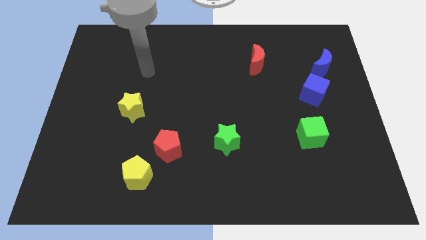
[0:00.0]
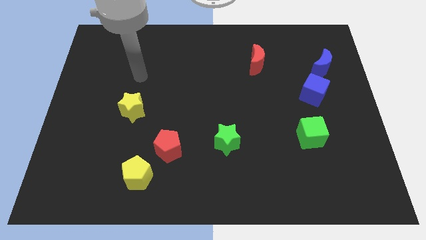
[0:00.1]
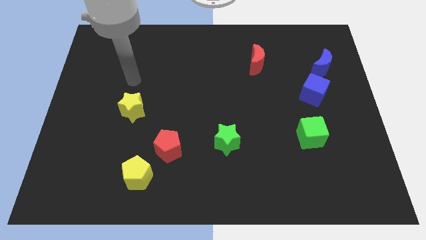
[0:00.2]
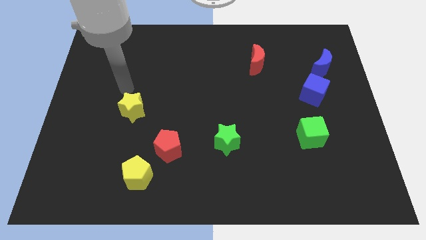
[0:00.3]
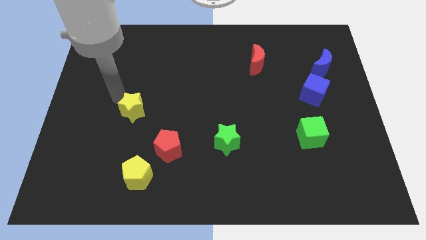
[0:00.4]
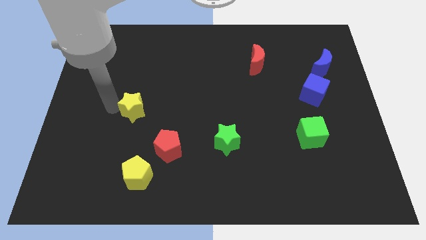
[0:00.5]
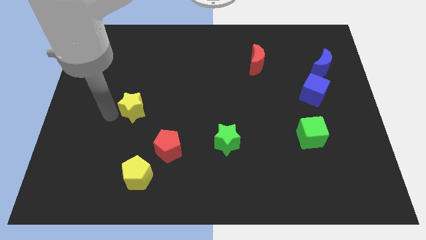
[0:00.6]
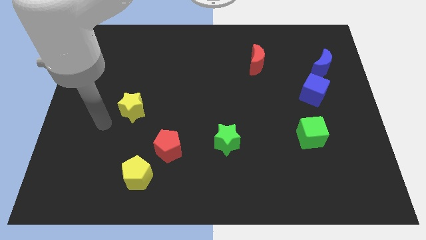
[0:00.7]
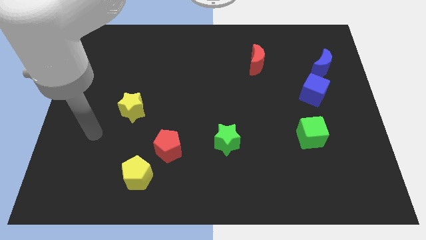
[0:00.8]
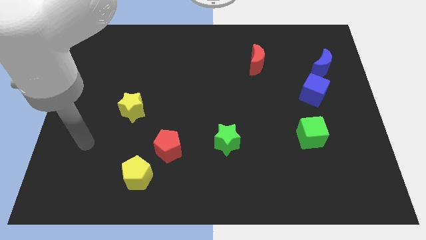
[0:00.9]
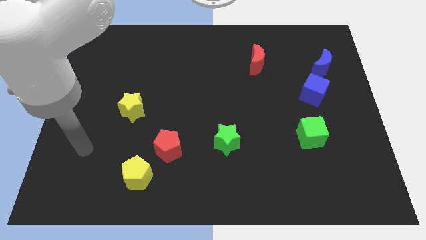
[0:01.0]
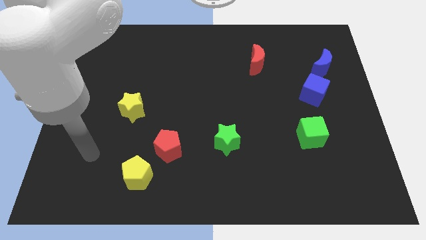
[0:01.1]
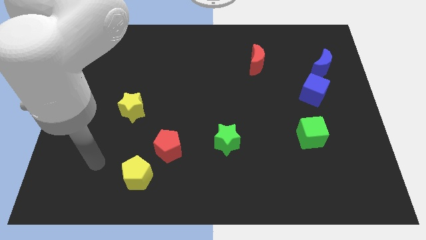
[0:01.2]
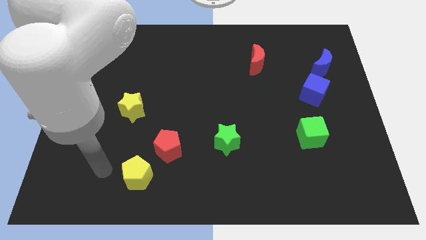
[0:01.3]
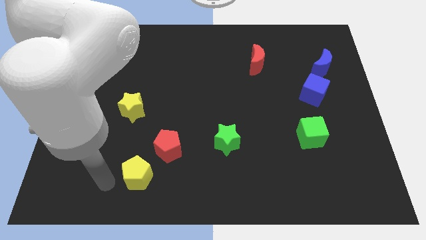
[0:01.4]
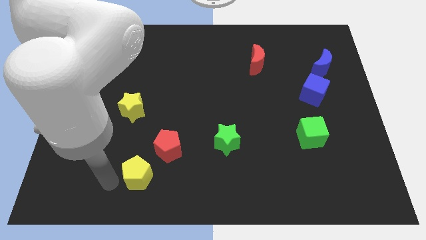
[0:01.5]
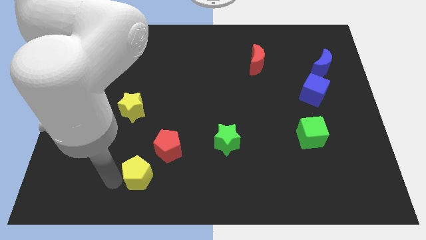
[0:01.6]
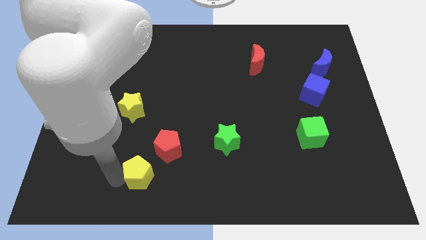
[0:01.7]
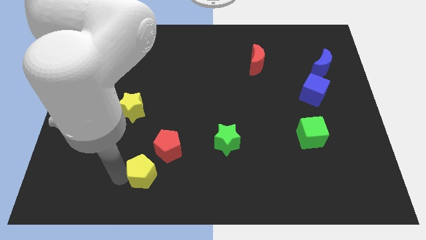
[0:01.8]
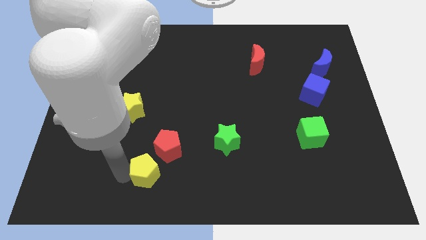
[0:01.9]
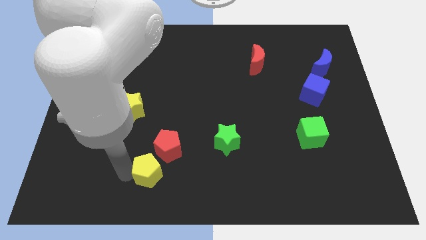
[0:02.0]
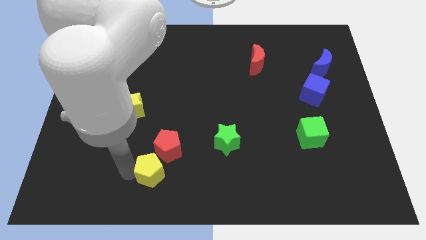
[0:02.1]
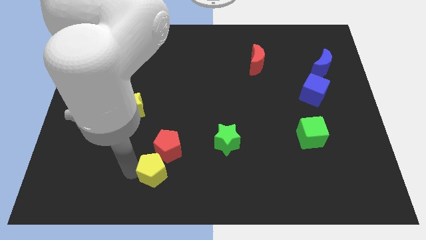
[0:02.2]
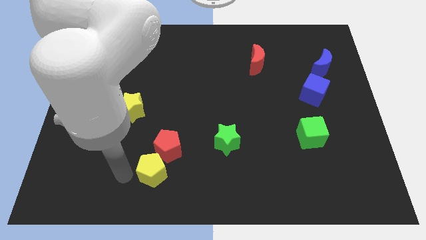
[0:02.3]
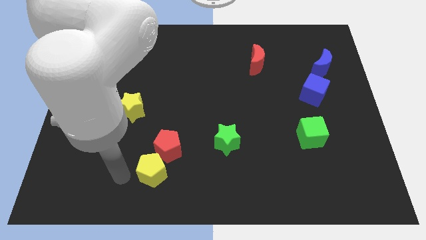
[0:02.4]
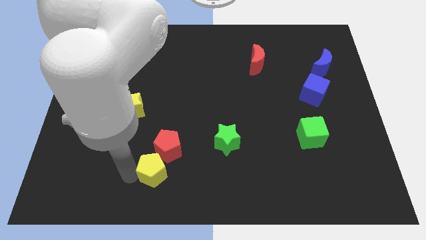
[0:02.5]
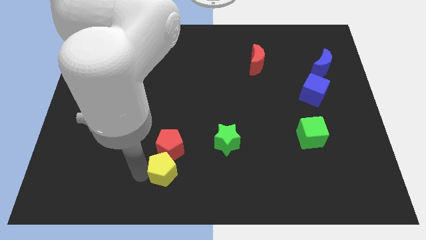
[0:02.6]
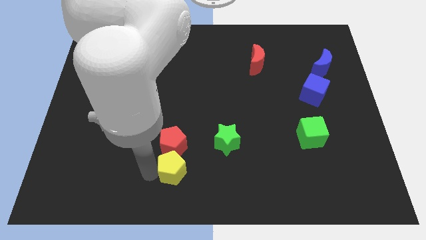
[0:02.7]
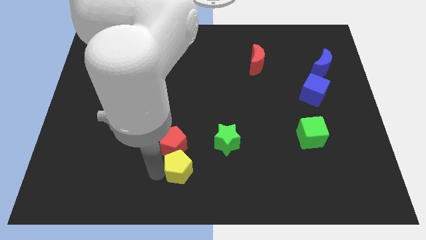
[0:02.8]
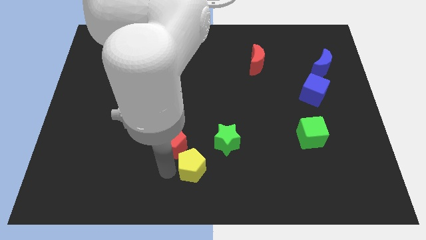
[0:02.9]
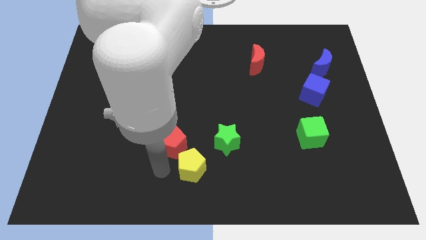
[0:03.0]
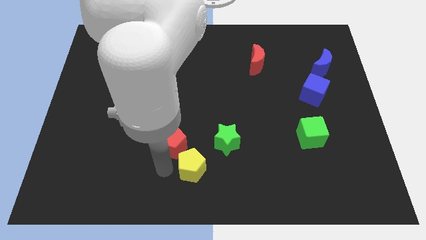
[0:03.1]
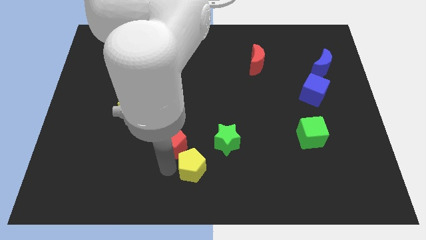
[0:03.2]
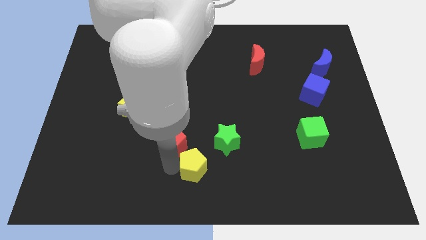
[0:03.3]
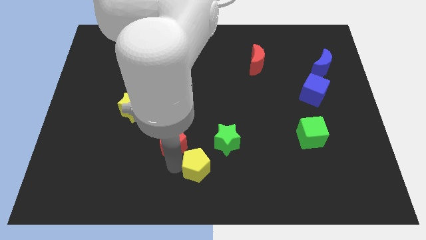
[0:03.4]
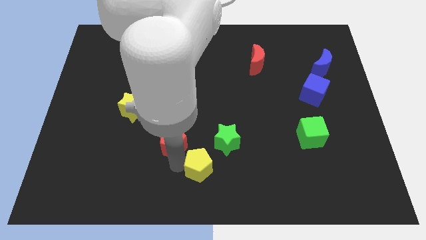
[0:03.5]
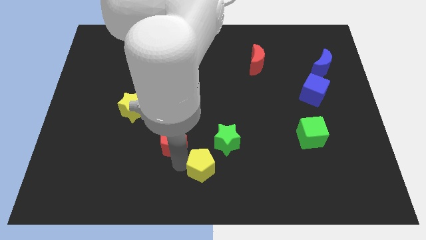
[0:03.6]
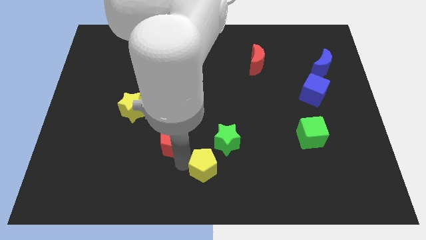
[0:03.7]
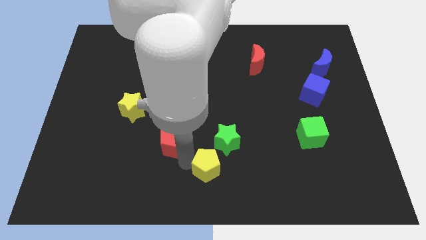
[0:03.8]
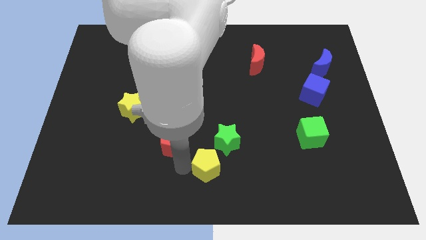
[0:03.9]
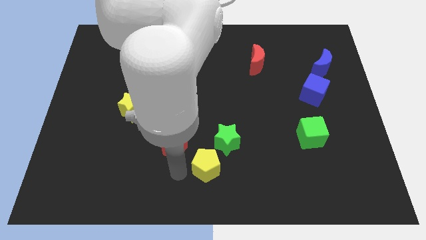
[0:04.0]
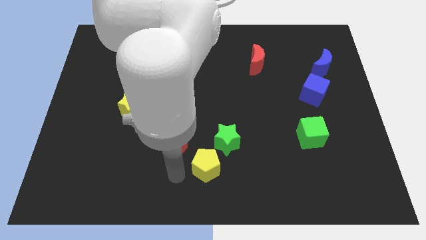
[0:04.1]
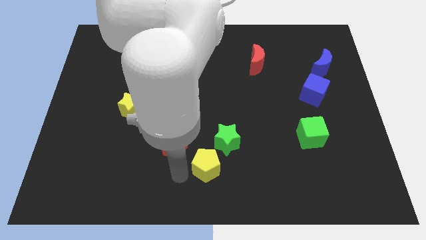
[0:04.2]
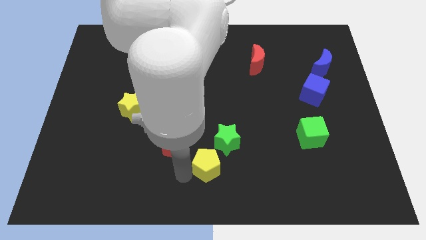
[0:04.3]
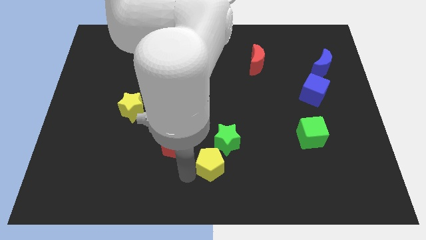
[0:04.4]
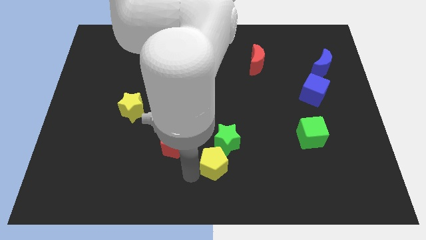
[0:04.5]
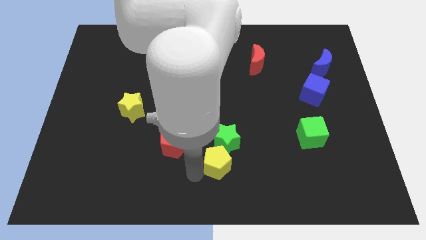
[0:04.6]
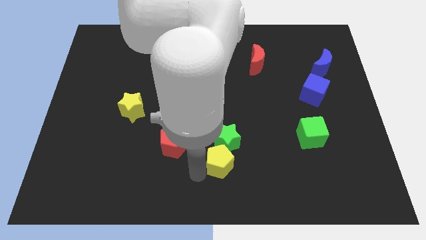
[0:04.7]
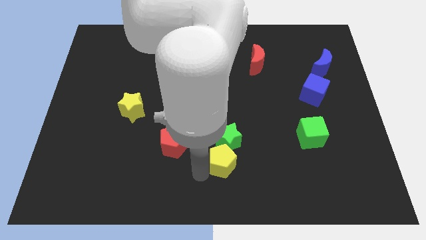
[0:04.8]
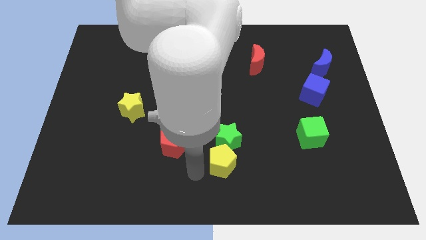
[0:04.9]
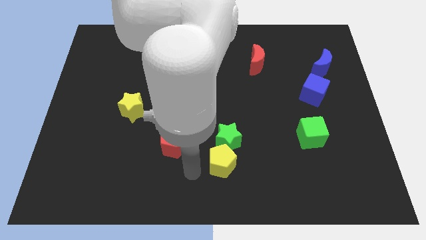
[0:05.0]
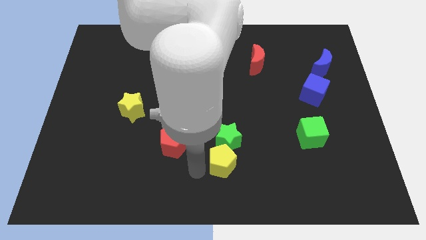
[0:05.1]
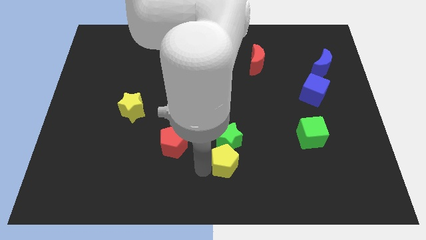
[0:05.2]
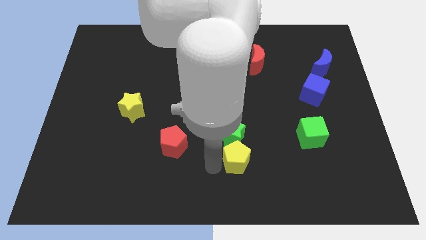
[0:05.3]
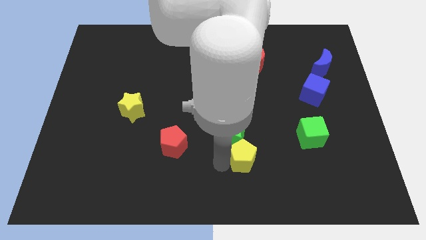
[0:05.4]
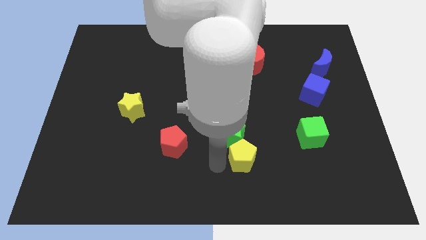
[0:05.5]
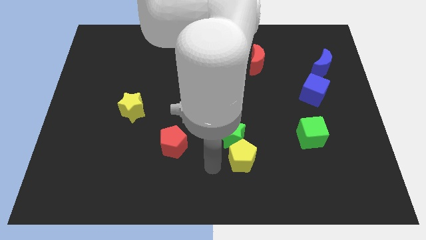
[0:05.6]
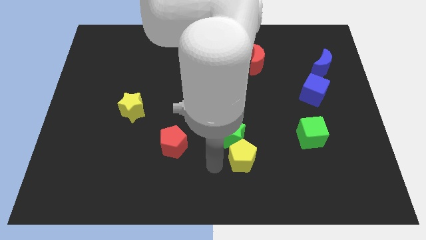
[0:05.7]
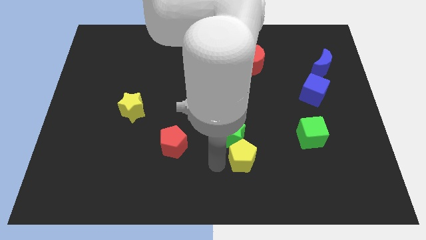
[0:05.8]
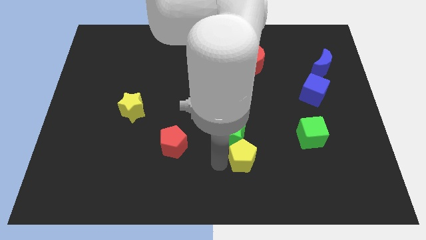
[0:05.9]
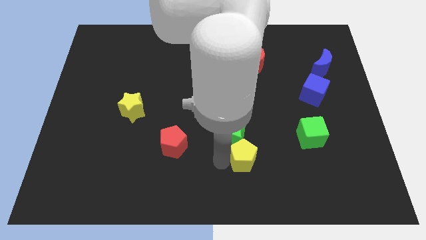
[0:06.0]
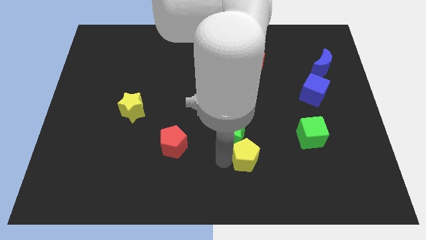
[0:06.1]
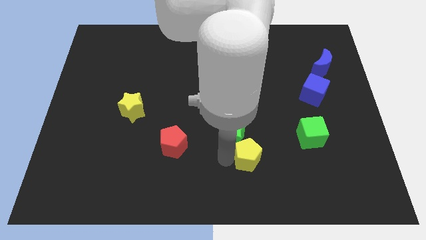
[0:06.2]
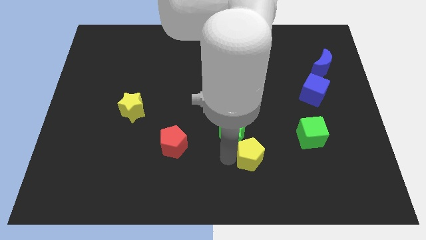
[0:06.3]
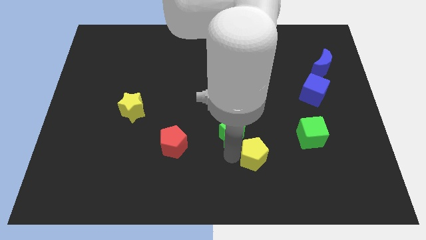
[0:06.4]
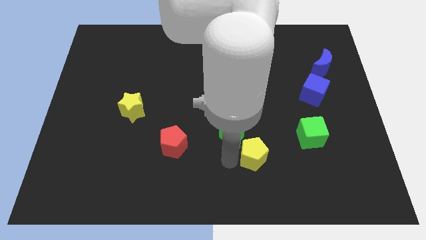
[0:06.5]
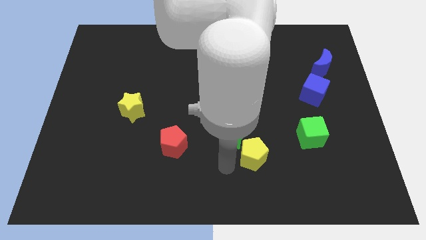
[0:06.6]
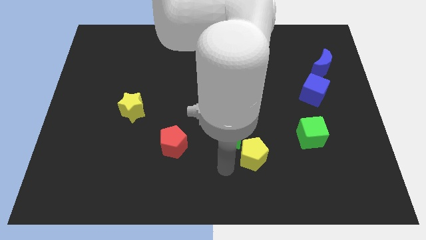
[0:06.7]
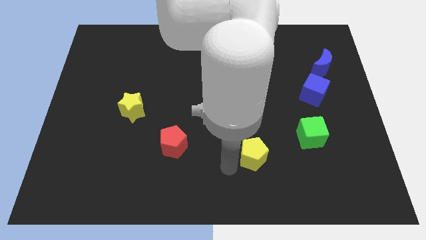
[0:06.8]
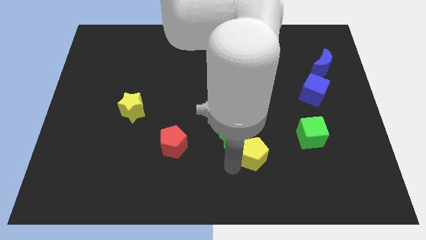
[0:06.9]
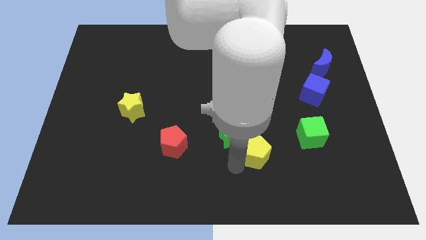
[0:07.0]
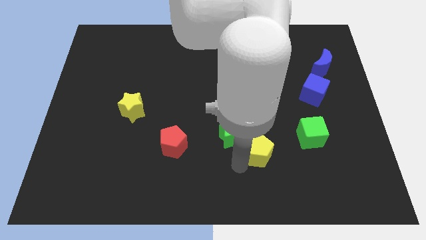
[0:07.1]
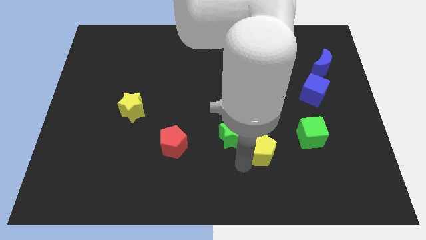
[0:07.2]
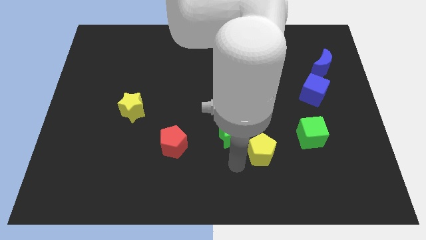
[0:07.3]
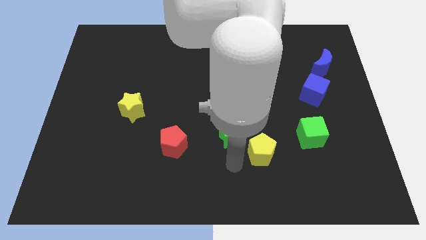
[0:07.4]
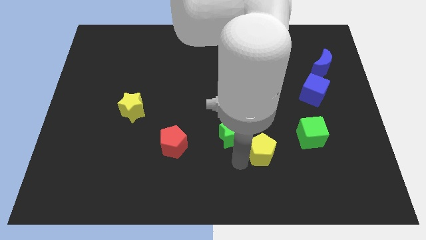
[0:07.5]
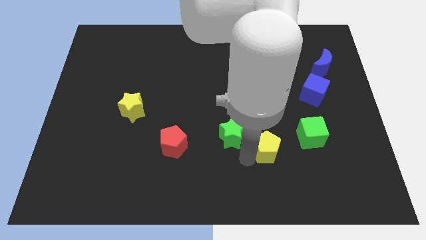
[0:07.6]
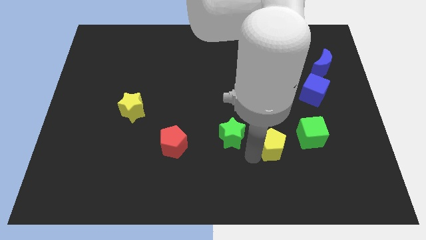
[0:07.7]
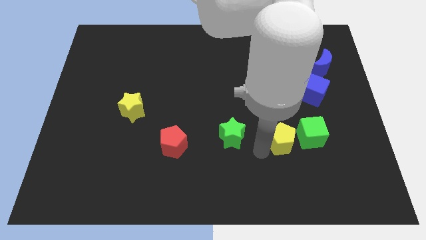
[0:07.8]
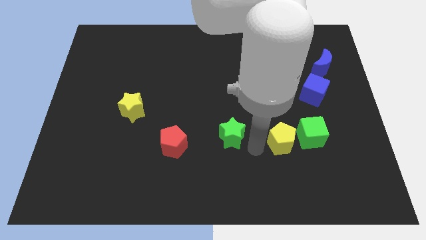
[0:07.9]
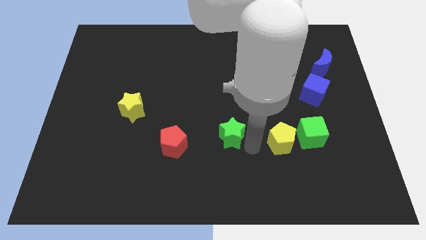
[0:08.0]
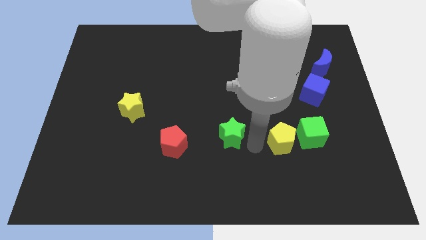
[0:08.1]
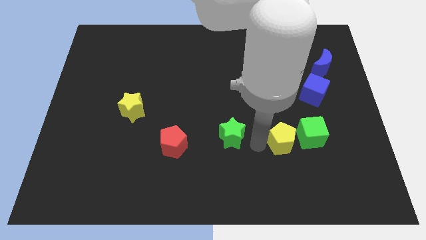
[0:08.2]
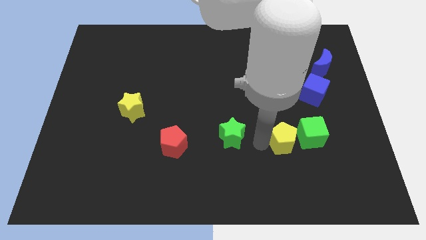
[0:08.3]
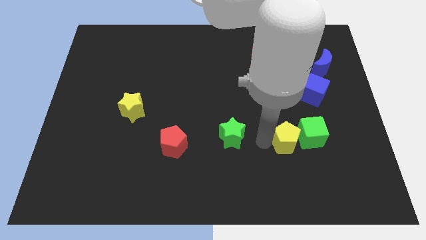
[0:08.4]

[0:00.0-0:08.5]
push the yellow pentagon to the green cube
